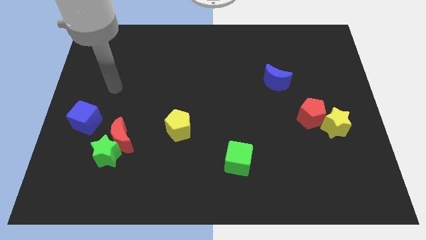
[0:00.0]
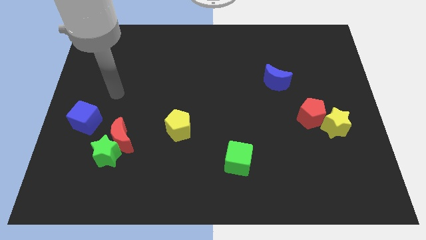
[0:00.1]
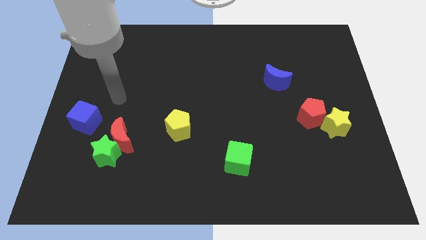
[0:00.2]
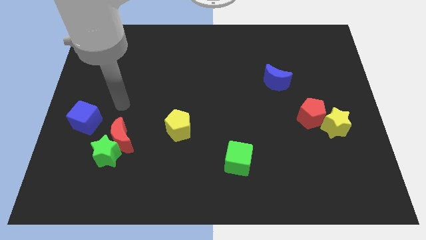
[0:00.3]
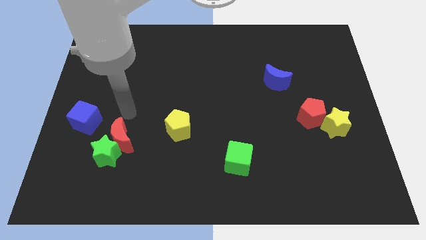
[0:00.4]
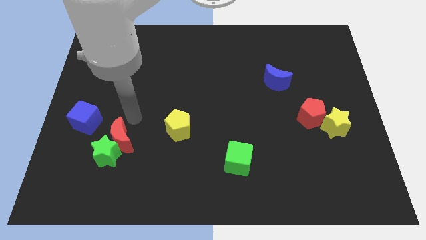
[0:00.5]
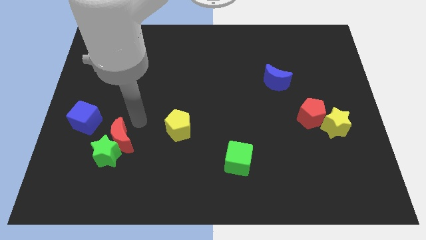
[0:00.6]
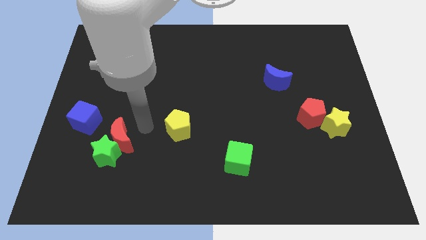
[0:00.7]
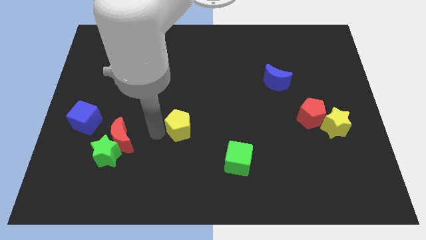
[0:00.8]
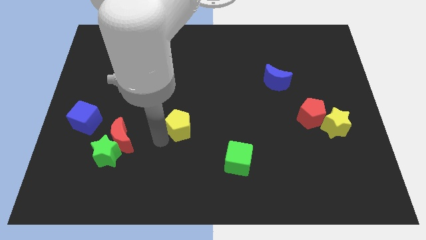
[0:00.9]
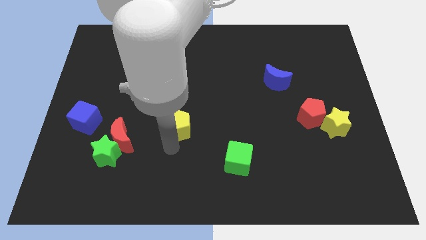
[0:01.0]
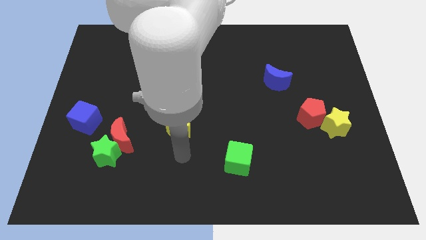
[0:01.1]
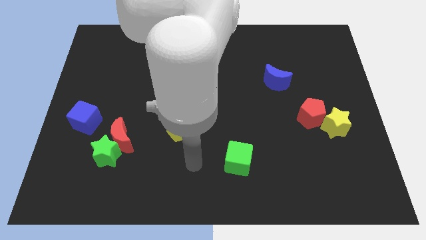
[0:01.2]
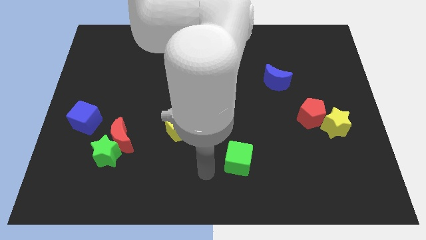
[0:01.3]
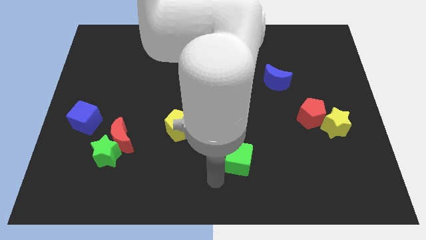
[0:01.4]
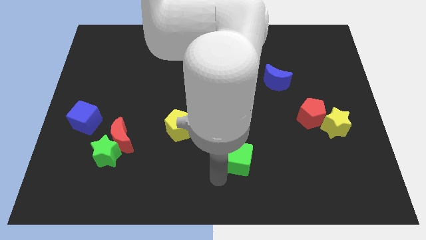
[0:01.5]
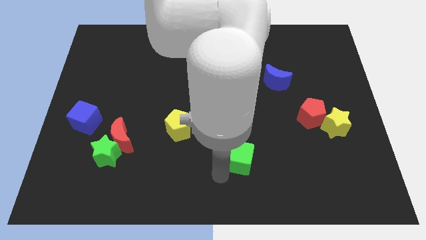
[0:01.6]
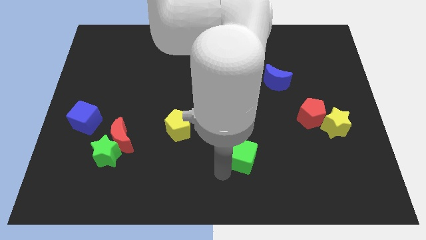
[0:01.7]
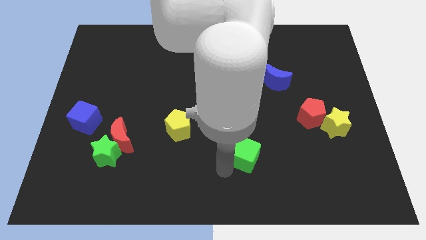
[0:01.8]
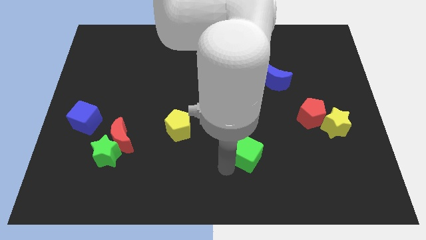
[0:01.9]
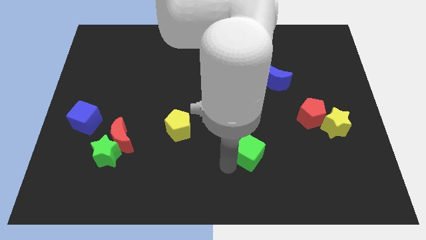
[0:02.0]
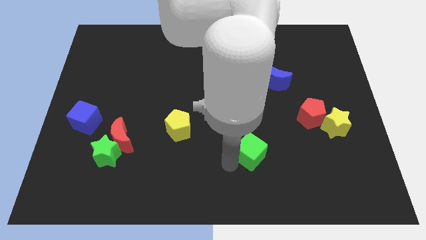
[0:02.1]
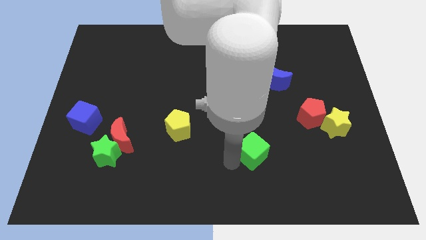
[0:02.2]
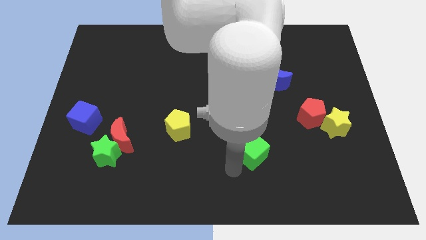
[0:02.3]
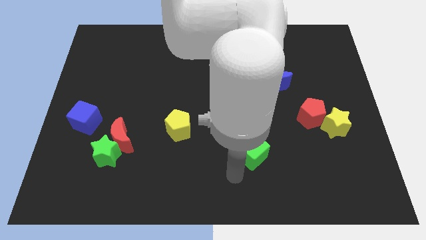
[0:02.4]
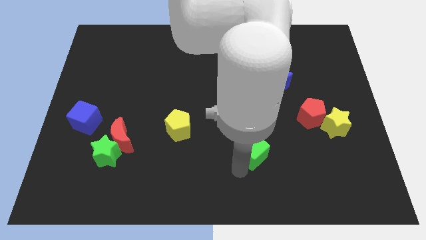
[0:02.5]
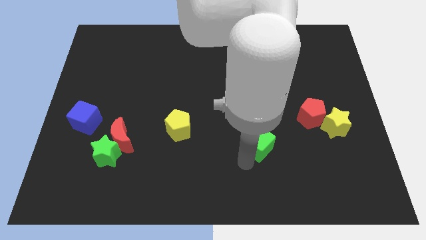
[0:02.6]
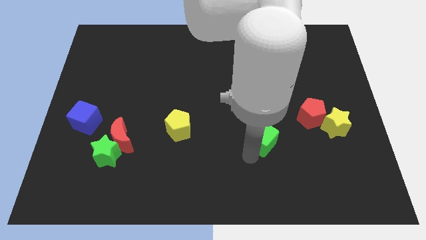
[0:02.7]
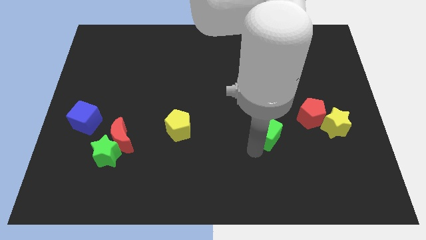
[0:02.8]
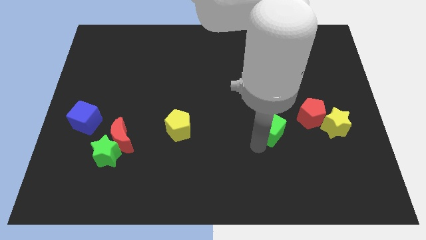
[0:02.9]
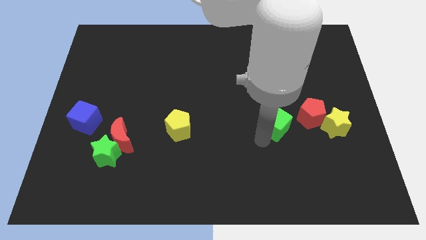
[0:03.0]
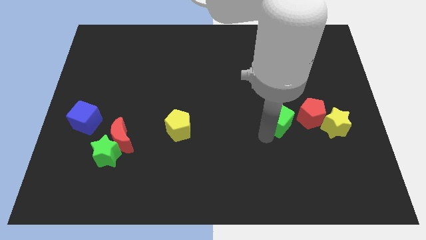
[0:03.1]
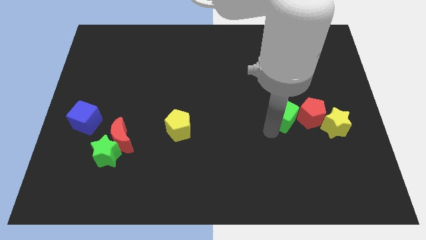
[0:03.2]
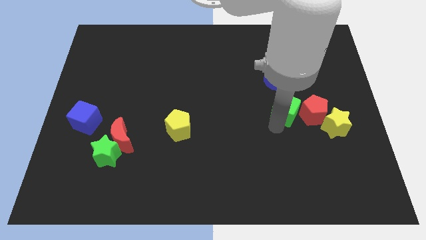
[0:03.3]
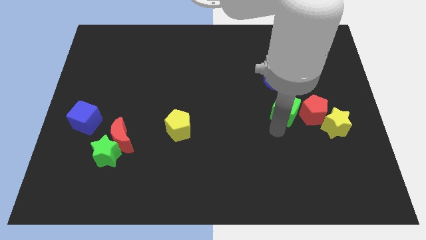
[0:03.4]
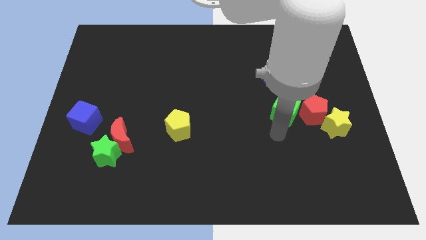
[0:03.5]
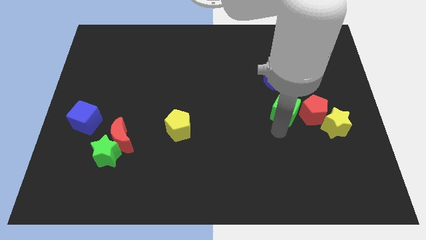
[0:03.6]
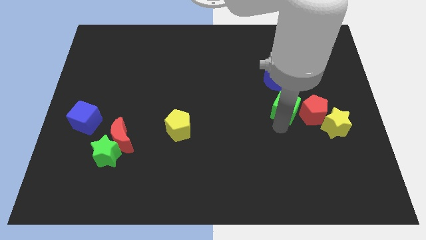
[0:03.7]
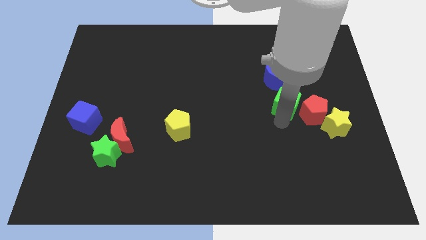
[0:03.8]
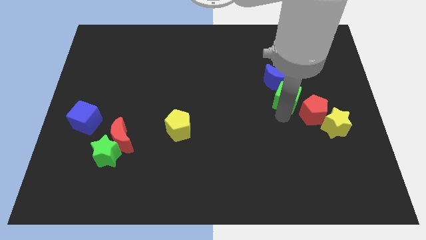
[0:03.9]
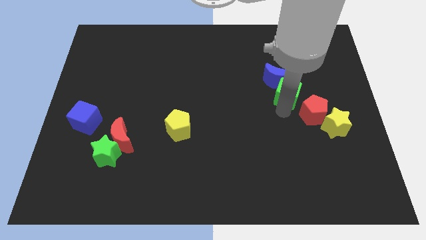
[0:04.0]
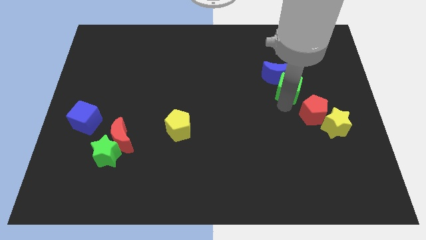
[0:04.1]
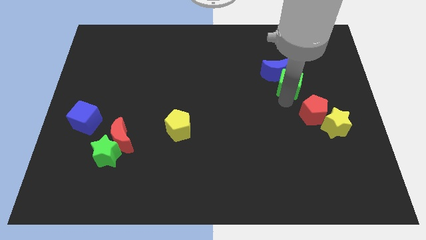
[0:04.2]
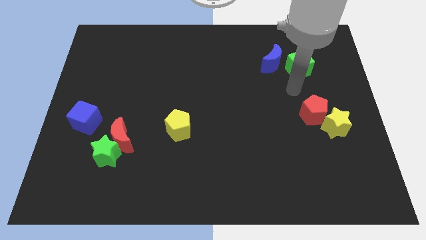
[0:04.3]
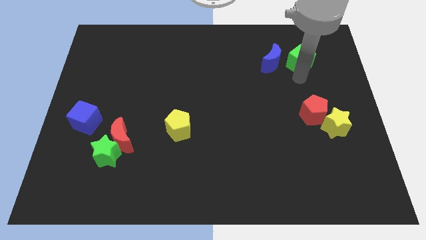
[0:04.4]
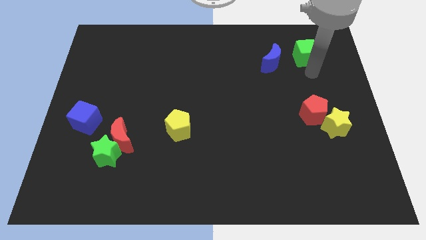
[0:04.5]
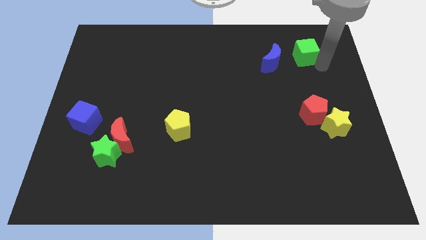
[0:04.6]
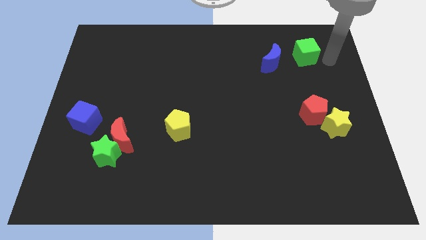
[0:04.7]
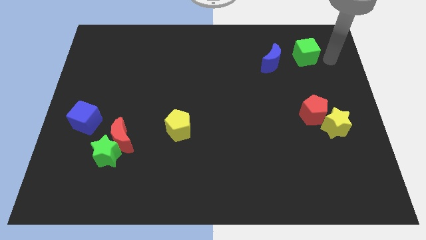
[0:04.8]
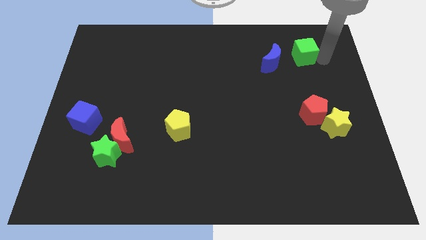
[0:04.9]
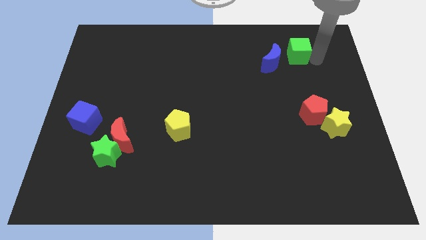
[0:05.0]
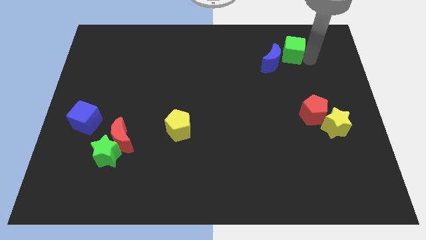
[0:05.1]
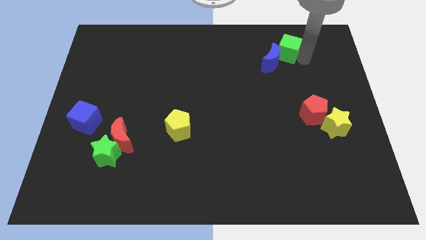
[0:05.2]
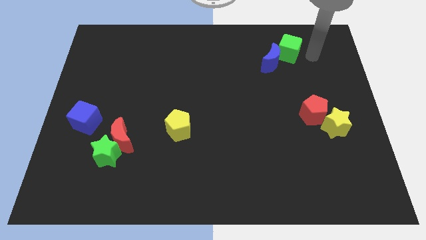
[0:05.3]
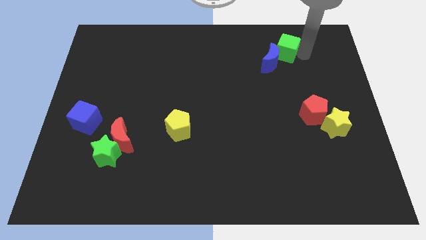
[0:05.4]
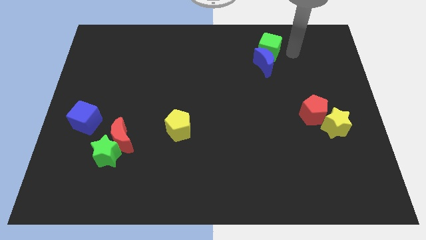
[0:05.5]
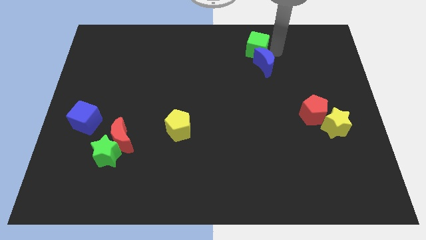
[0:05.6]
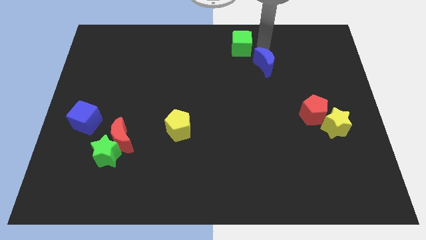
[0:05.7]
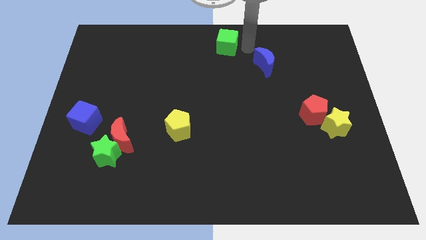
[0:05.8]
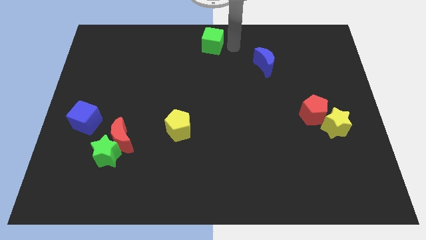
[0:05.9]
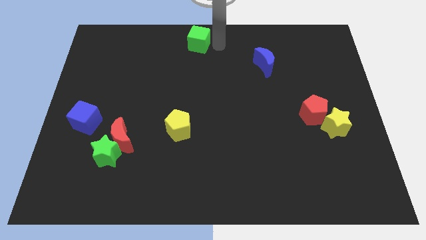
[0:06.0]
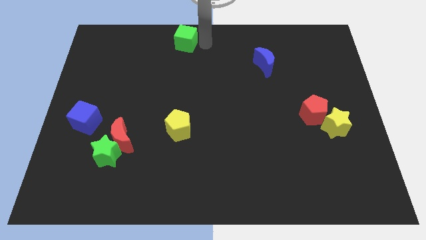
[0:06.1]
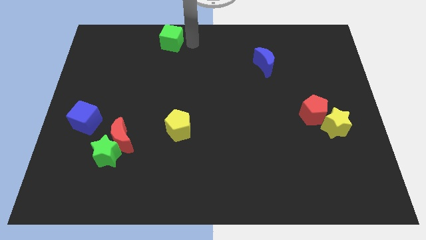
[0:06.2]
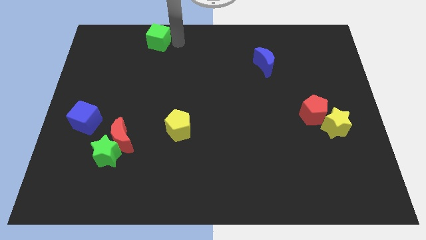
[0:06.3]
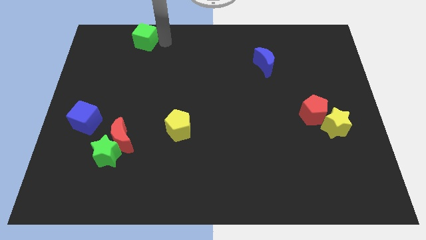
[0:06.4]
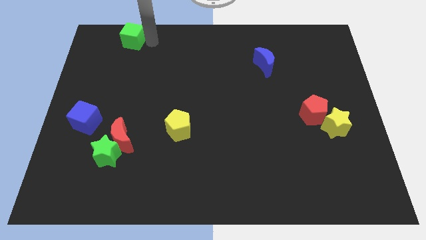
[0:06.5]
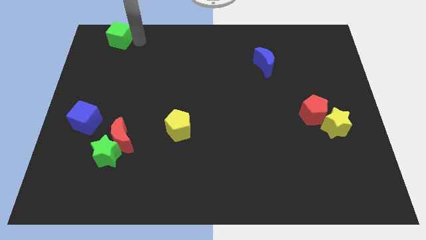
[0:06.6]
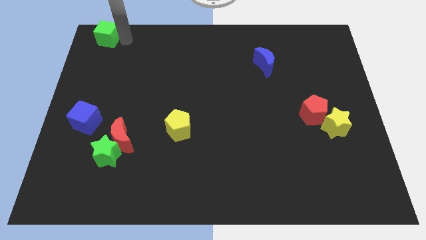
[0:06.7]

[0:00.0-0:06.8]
push the green cube to the top left
